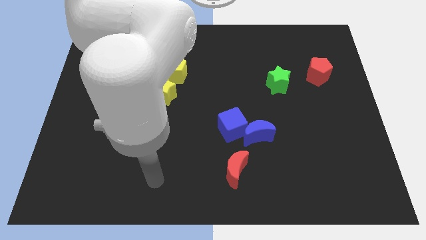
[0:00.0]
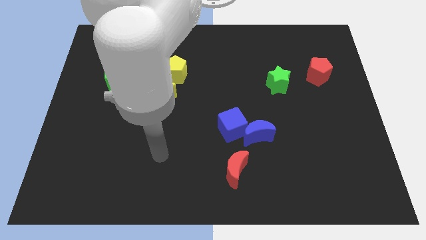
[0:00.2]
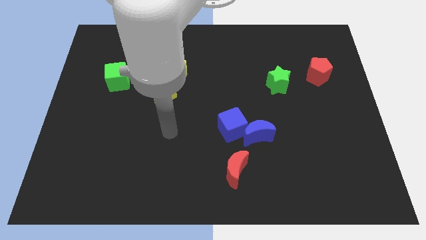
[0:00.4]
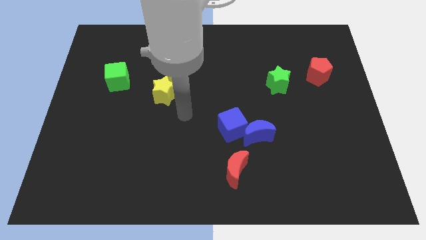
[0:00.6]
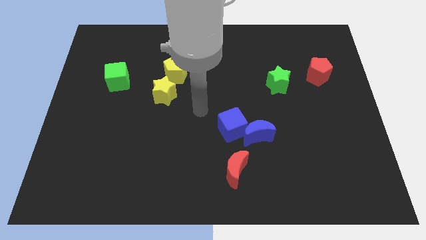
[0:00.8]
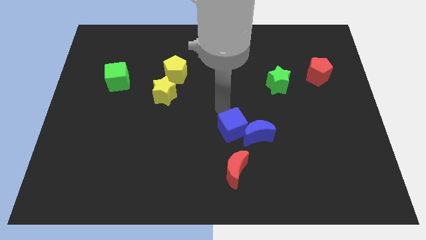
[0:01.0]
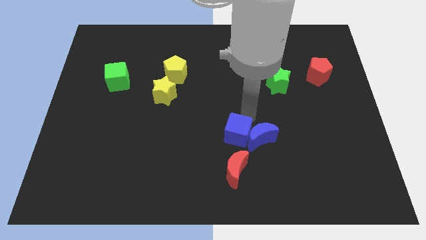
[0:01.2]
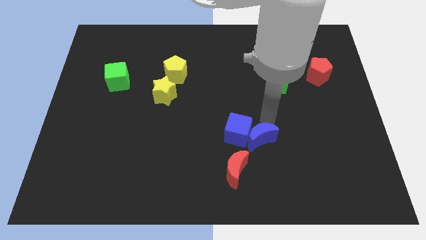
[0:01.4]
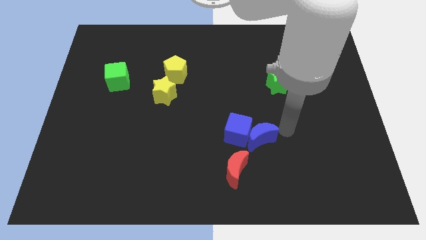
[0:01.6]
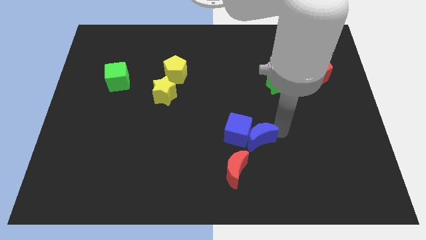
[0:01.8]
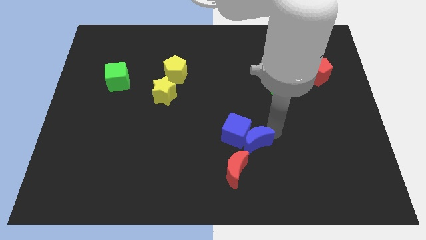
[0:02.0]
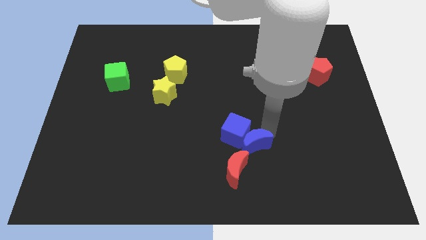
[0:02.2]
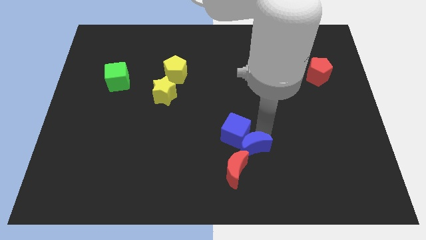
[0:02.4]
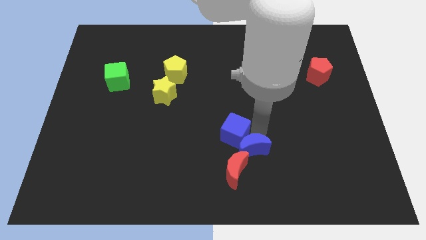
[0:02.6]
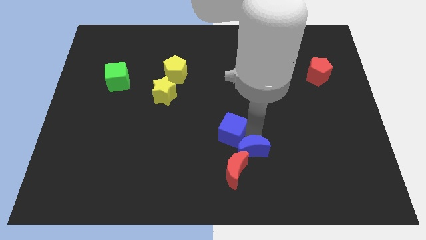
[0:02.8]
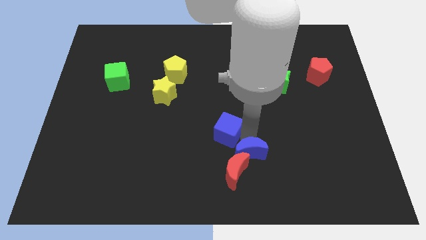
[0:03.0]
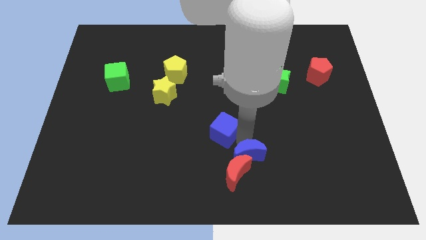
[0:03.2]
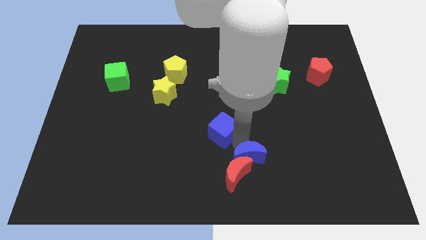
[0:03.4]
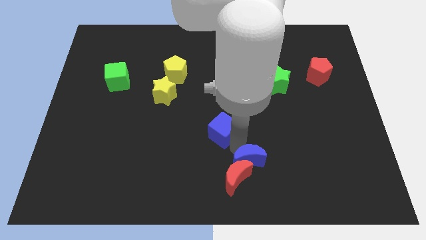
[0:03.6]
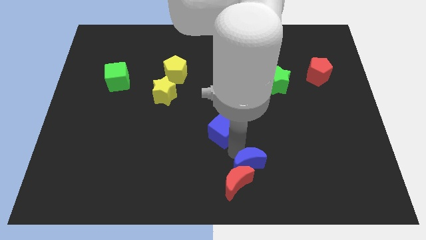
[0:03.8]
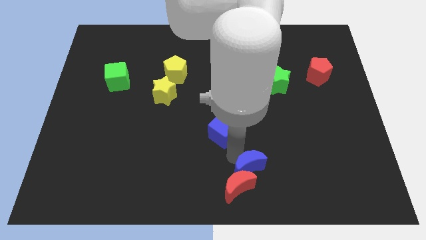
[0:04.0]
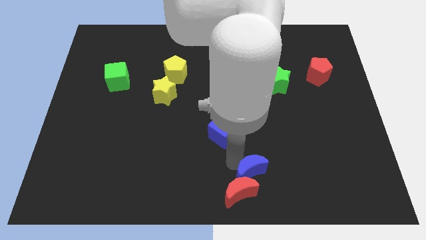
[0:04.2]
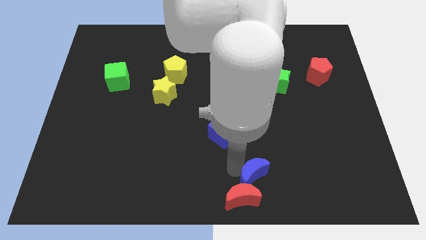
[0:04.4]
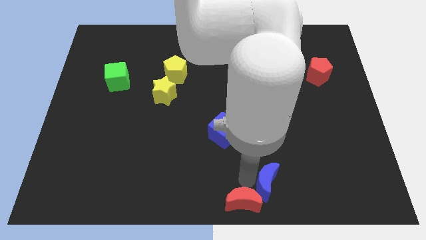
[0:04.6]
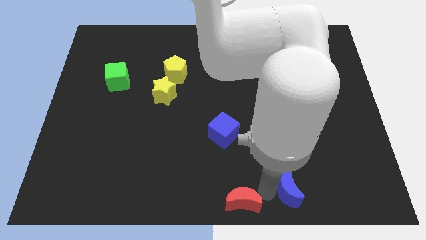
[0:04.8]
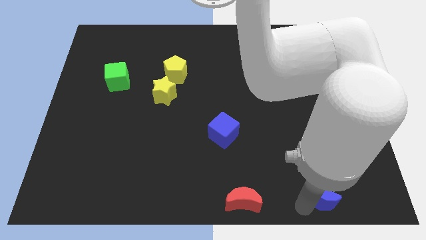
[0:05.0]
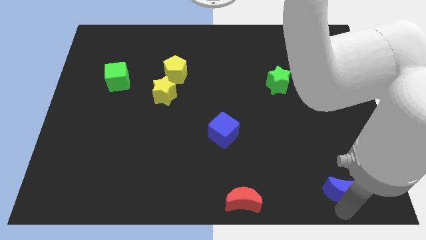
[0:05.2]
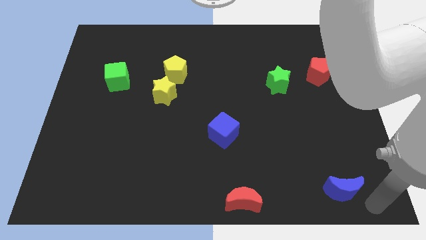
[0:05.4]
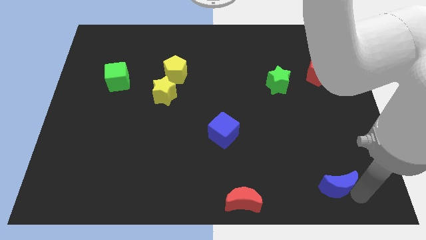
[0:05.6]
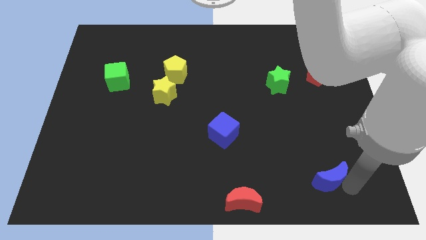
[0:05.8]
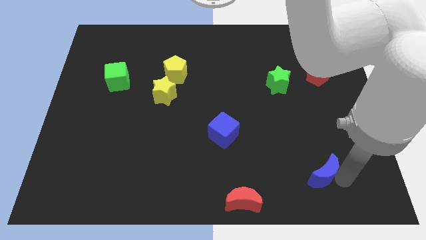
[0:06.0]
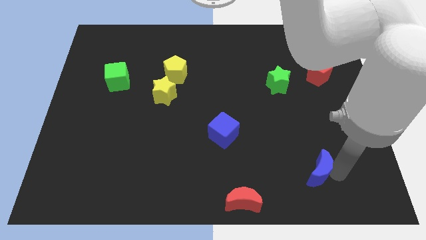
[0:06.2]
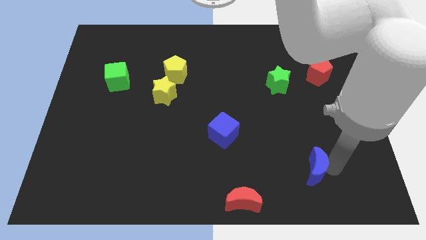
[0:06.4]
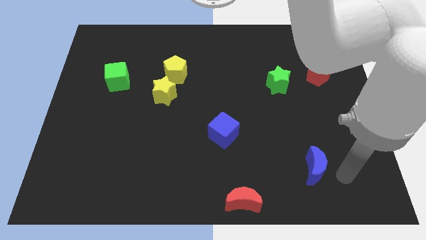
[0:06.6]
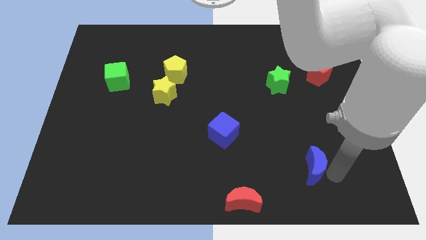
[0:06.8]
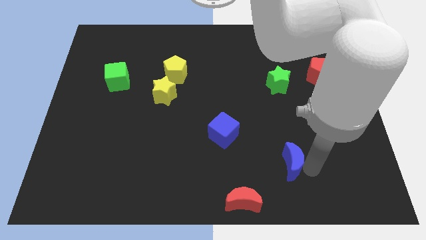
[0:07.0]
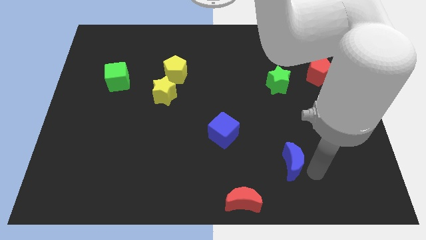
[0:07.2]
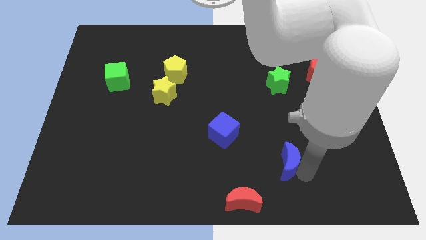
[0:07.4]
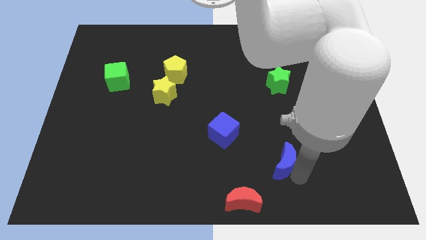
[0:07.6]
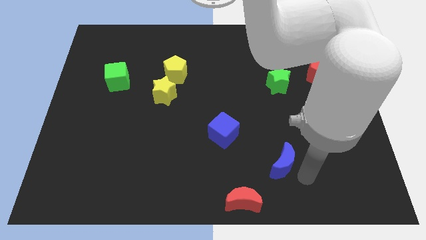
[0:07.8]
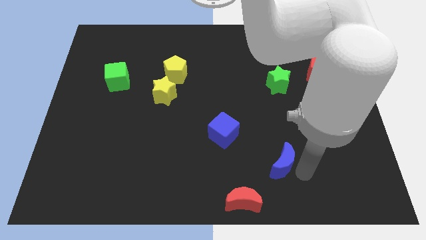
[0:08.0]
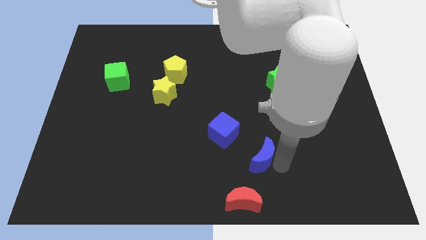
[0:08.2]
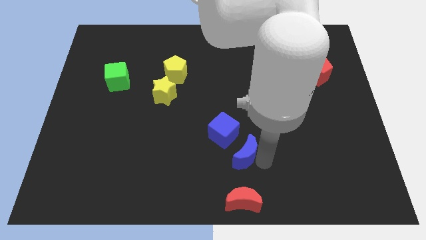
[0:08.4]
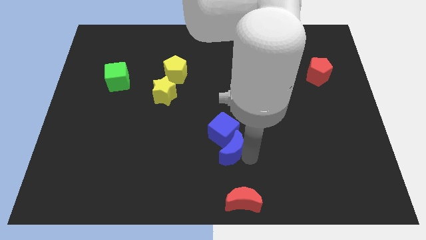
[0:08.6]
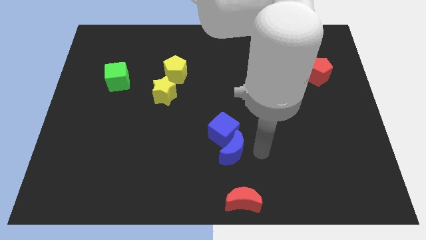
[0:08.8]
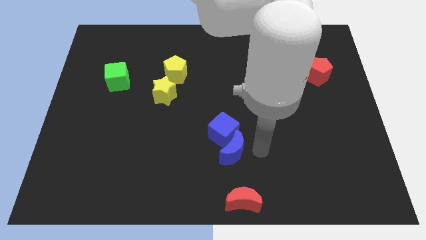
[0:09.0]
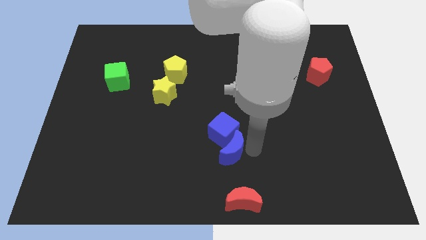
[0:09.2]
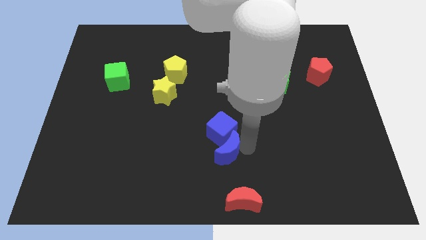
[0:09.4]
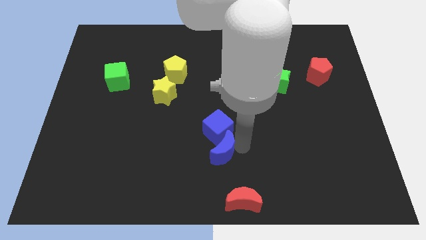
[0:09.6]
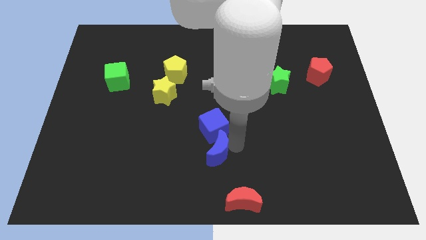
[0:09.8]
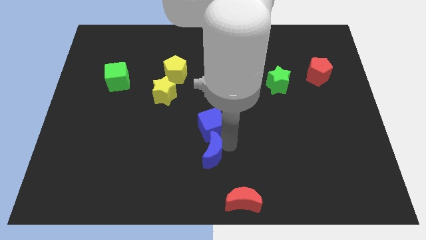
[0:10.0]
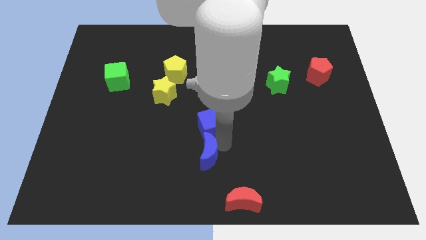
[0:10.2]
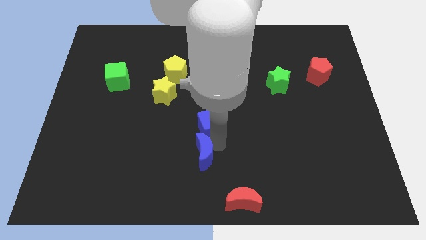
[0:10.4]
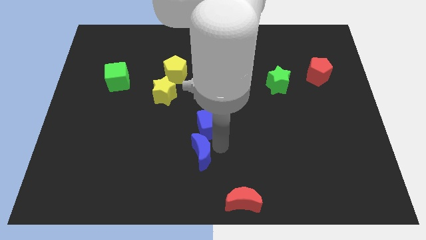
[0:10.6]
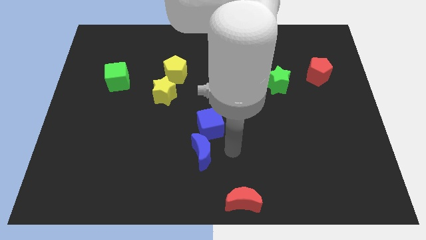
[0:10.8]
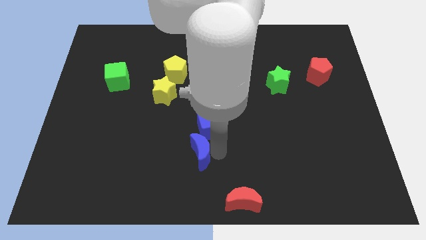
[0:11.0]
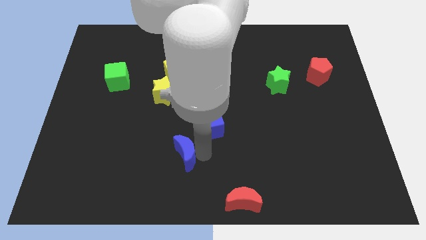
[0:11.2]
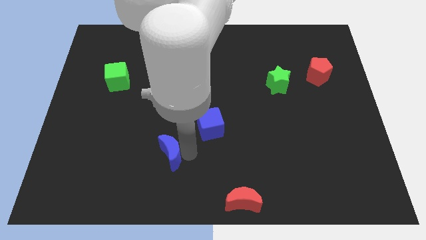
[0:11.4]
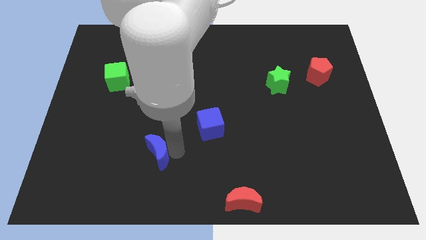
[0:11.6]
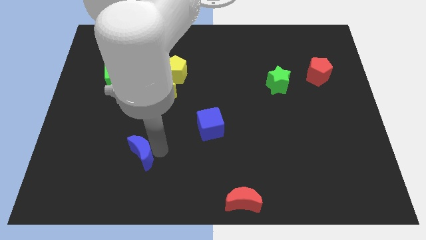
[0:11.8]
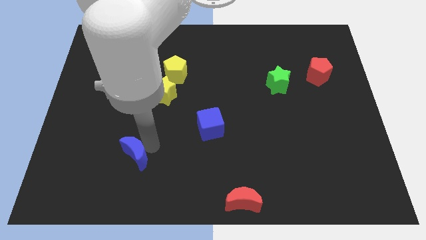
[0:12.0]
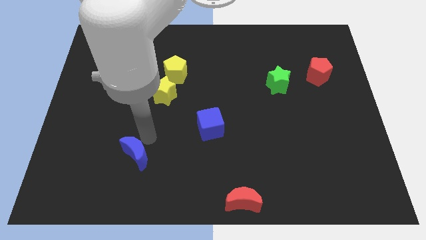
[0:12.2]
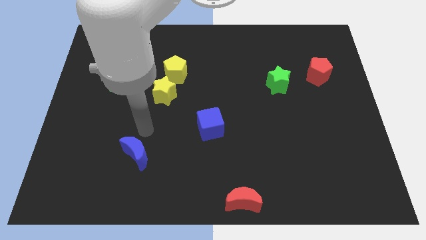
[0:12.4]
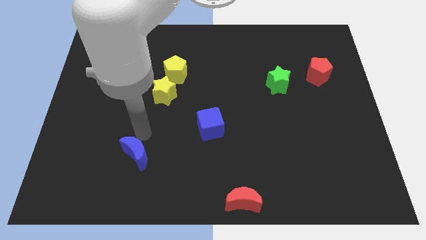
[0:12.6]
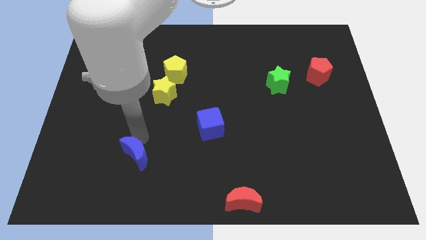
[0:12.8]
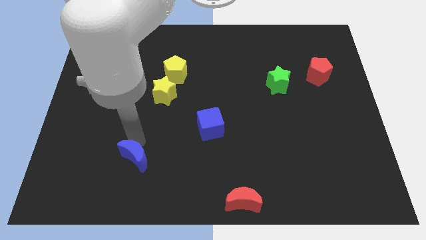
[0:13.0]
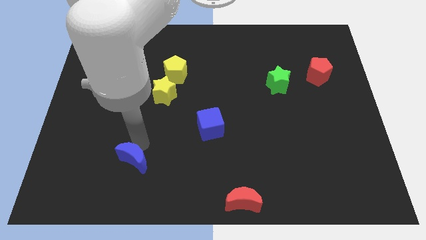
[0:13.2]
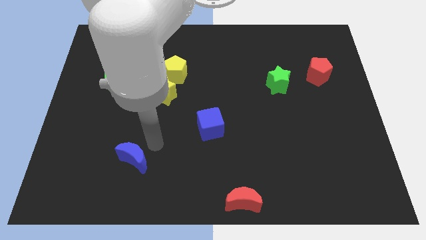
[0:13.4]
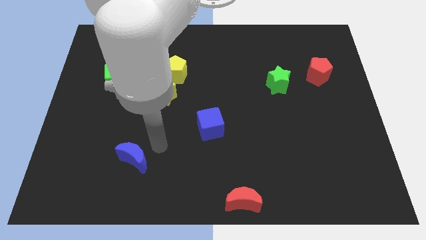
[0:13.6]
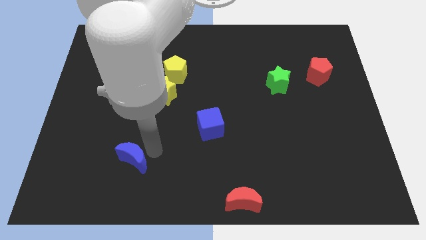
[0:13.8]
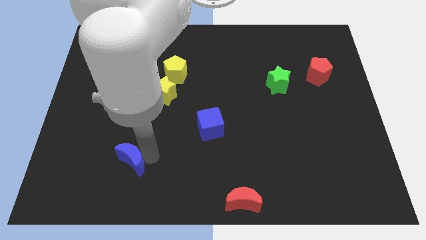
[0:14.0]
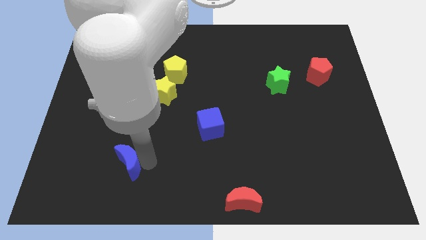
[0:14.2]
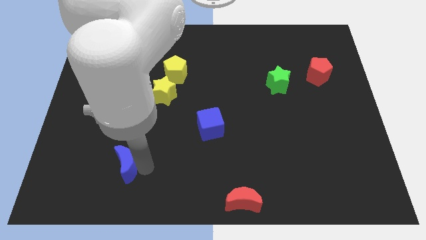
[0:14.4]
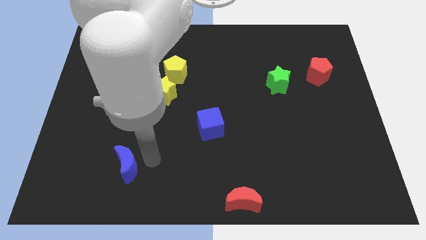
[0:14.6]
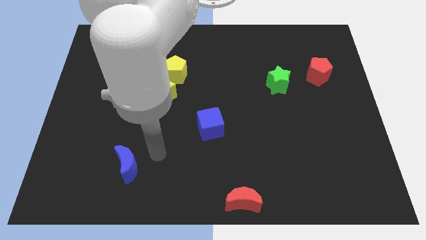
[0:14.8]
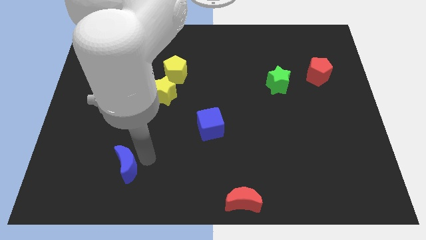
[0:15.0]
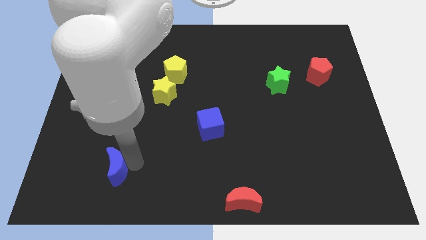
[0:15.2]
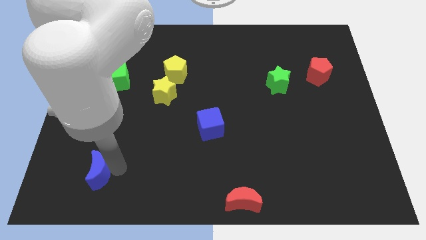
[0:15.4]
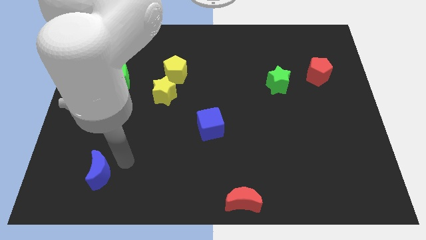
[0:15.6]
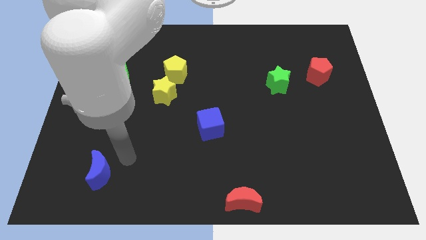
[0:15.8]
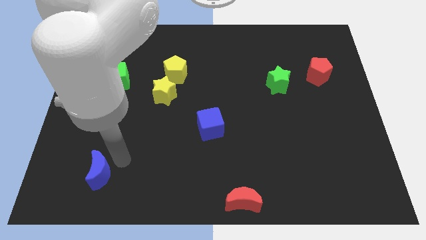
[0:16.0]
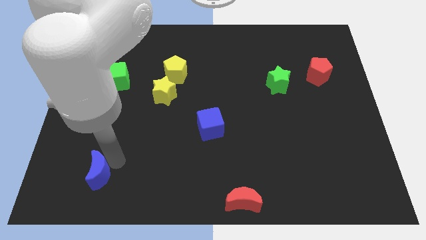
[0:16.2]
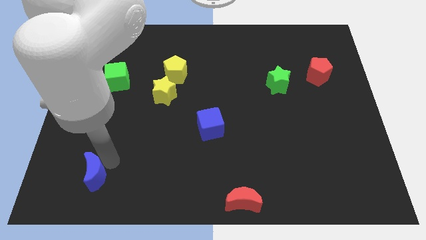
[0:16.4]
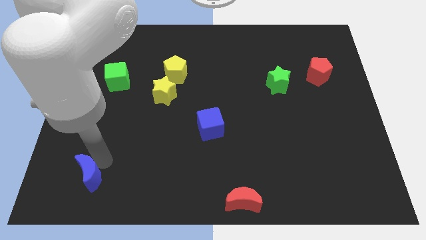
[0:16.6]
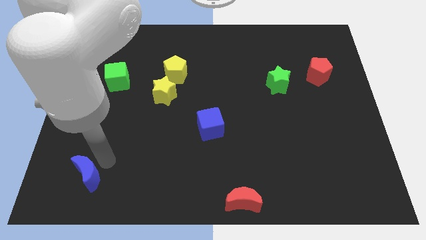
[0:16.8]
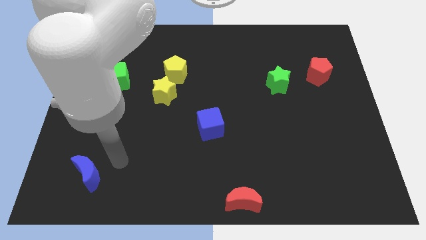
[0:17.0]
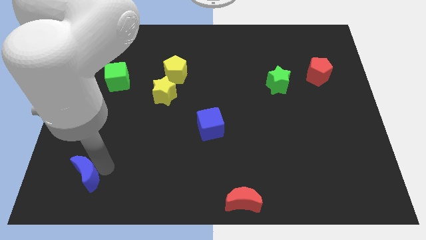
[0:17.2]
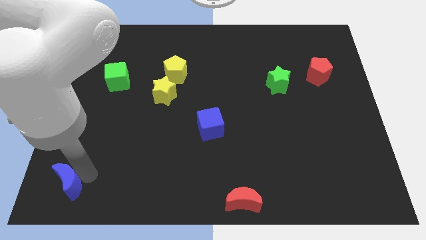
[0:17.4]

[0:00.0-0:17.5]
move the blue moon to the bottom left corner
